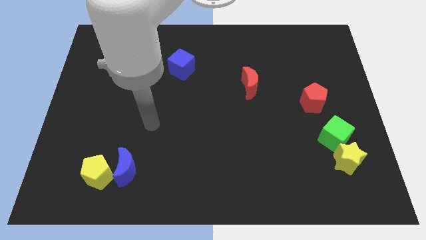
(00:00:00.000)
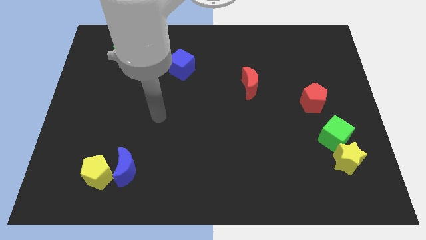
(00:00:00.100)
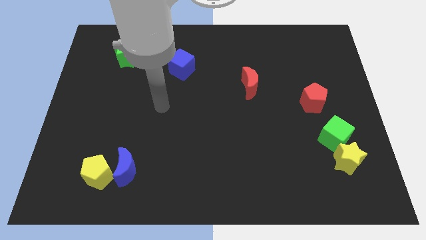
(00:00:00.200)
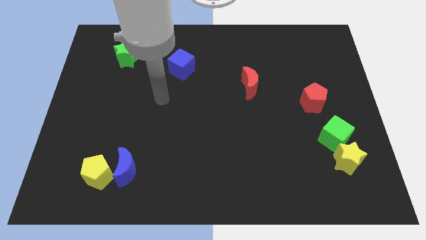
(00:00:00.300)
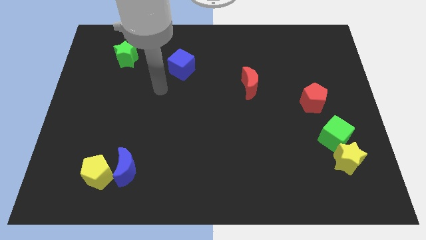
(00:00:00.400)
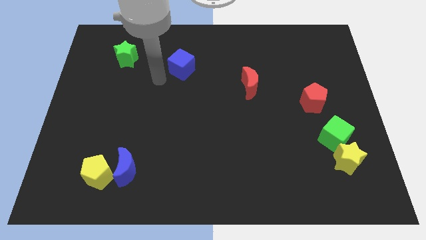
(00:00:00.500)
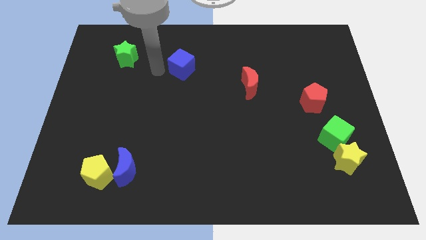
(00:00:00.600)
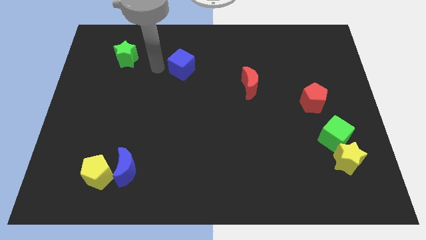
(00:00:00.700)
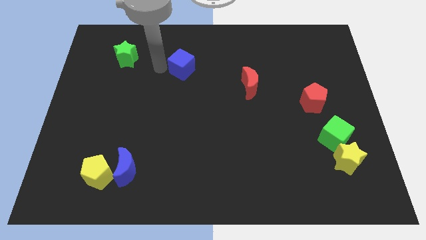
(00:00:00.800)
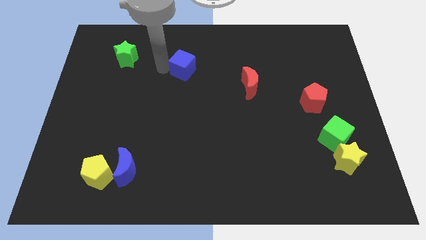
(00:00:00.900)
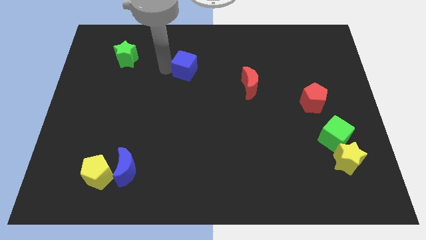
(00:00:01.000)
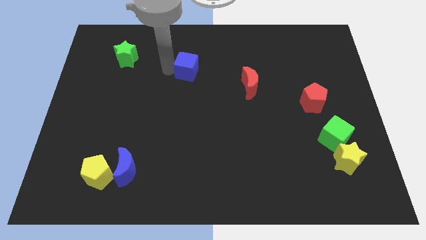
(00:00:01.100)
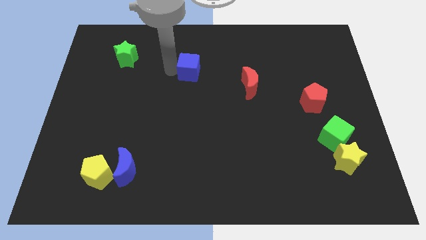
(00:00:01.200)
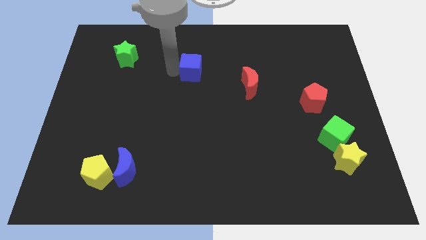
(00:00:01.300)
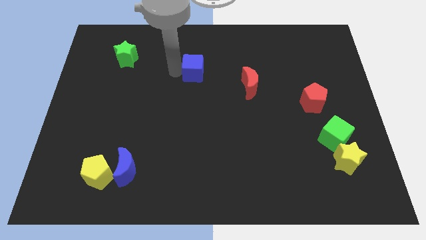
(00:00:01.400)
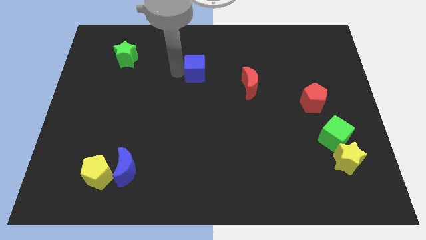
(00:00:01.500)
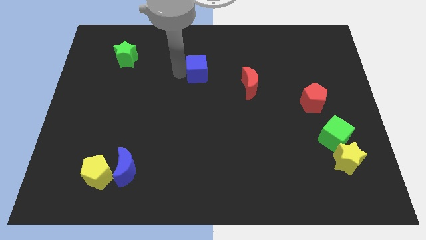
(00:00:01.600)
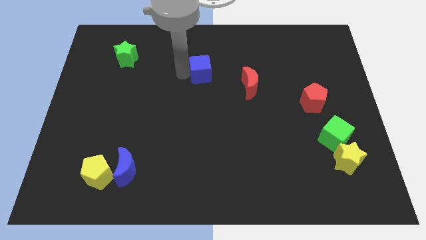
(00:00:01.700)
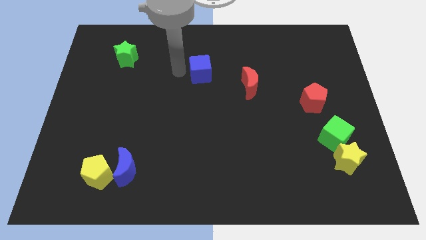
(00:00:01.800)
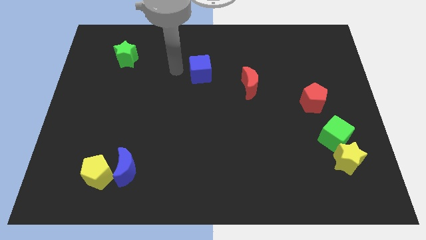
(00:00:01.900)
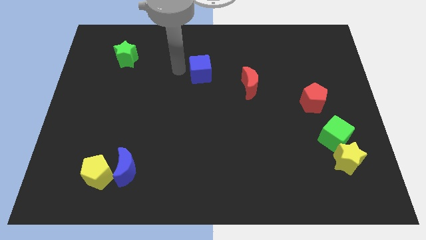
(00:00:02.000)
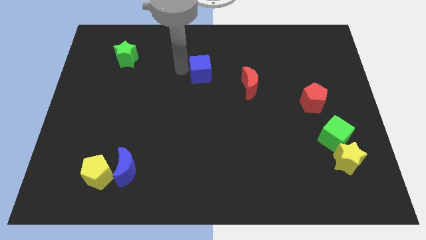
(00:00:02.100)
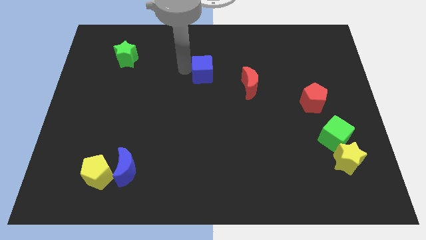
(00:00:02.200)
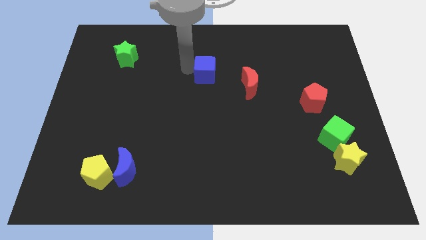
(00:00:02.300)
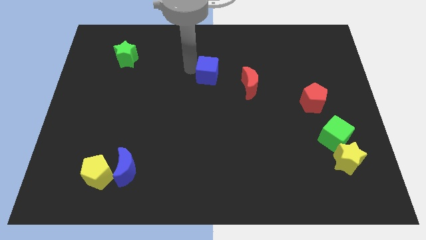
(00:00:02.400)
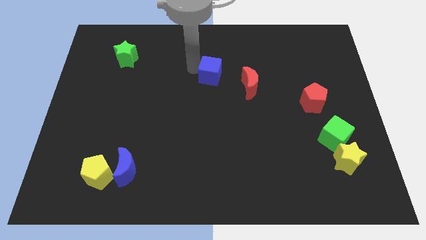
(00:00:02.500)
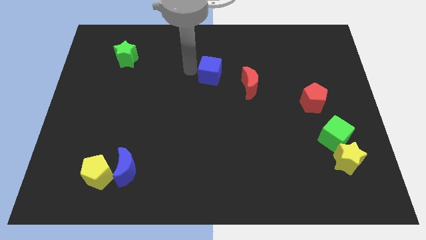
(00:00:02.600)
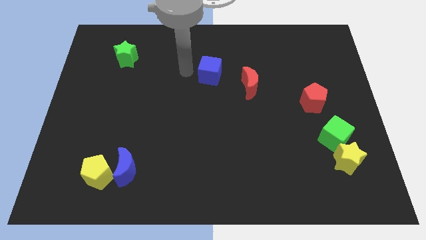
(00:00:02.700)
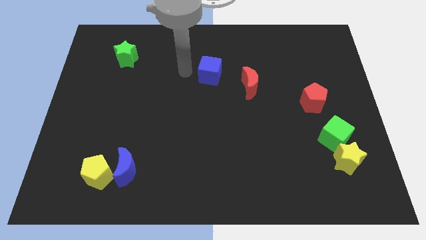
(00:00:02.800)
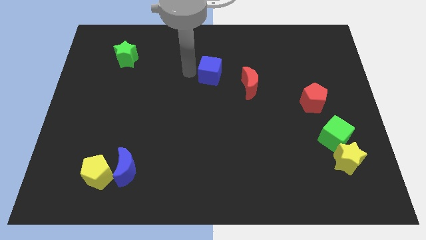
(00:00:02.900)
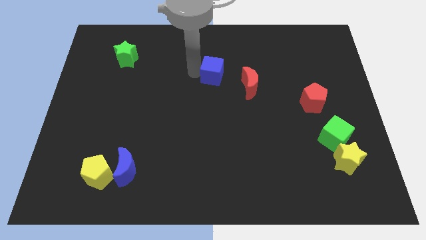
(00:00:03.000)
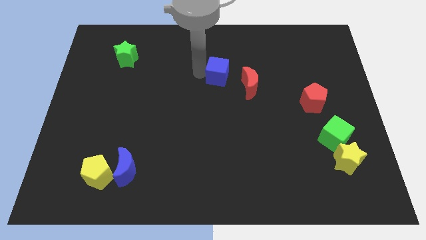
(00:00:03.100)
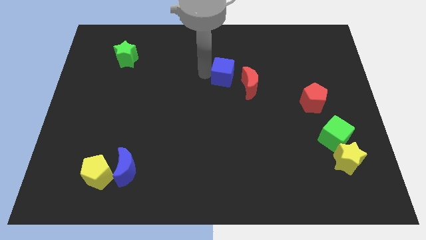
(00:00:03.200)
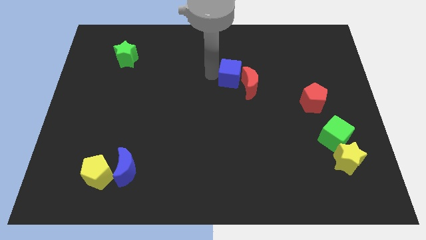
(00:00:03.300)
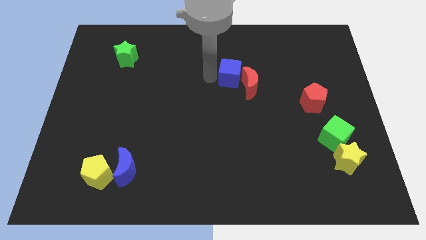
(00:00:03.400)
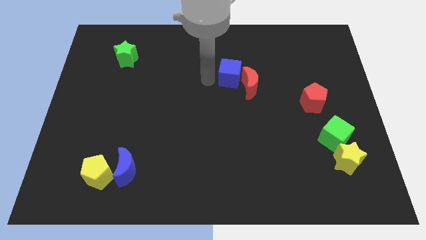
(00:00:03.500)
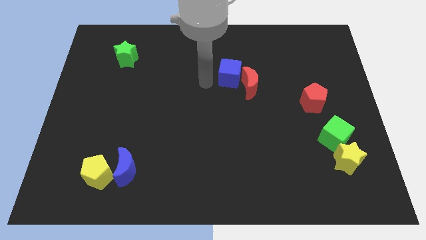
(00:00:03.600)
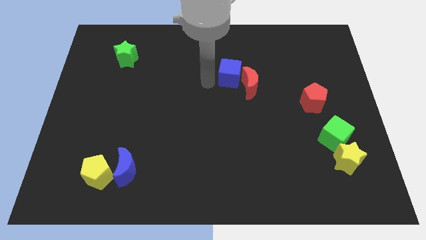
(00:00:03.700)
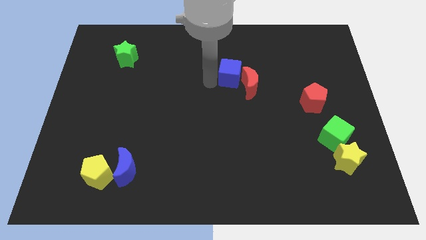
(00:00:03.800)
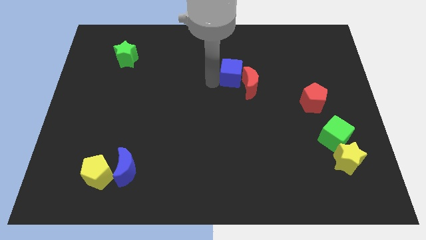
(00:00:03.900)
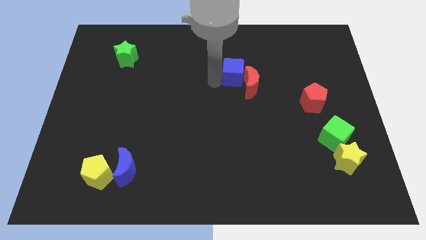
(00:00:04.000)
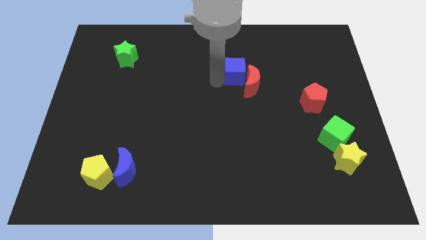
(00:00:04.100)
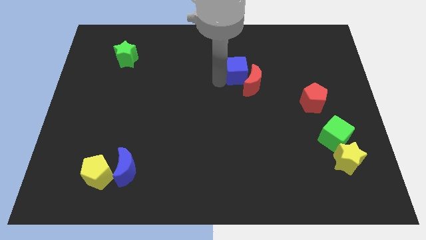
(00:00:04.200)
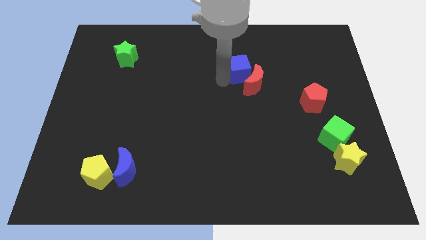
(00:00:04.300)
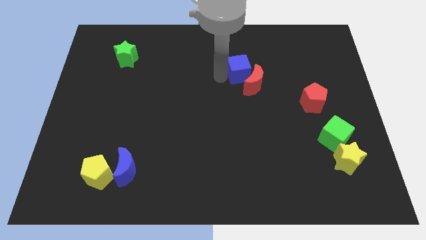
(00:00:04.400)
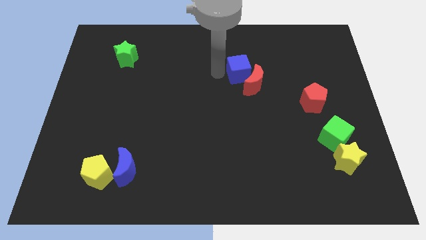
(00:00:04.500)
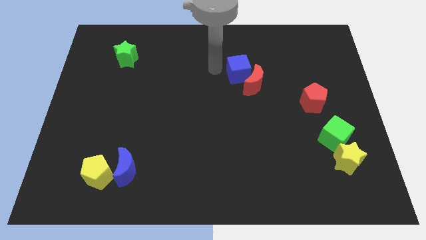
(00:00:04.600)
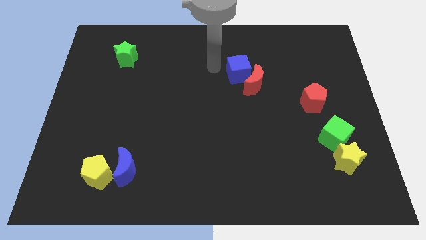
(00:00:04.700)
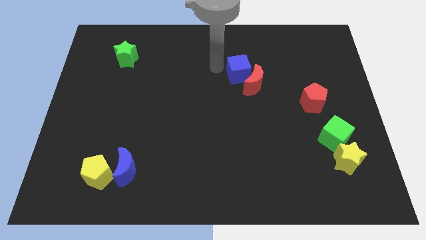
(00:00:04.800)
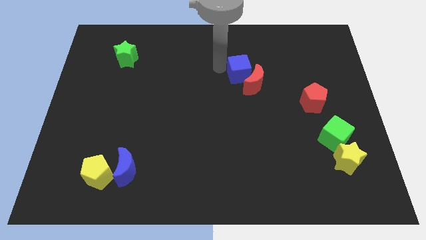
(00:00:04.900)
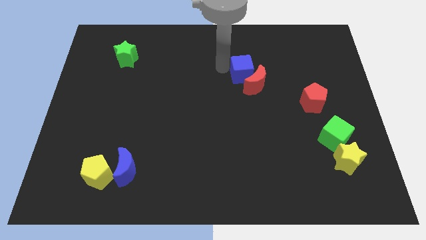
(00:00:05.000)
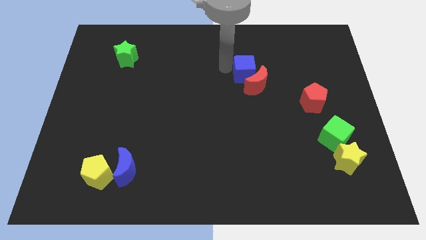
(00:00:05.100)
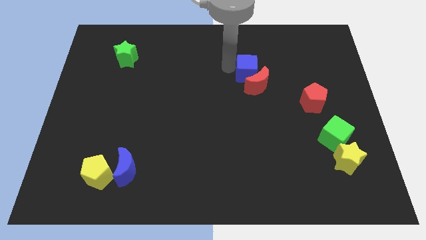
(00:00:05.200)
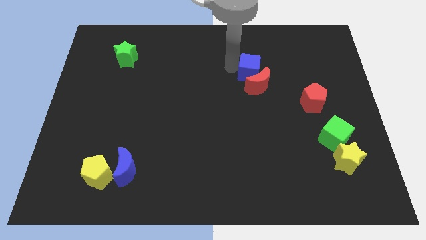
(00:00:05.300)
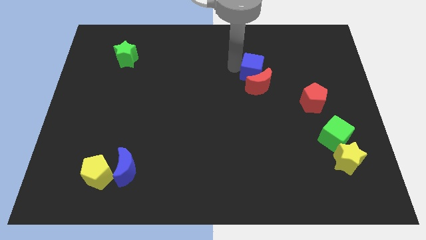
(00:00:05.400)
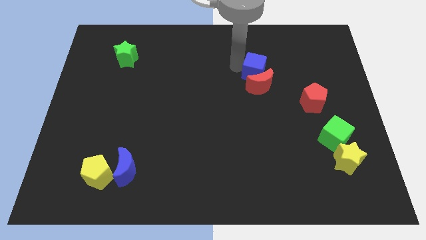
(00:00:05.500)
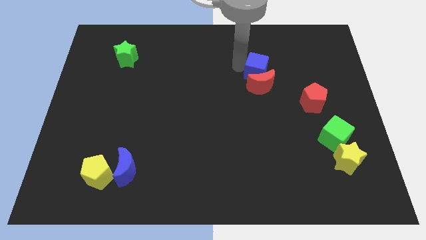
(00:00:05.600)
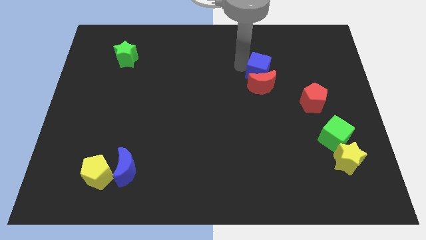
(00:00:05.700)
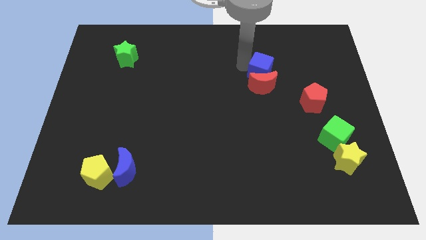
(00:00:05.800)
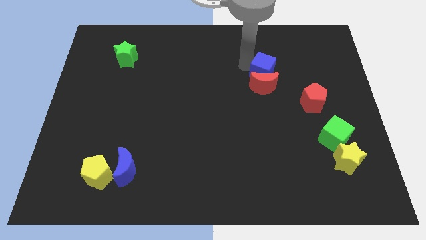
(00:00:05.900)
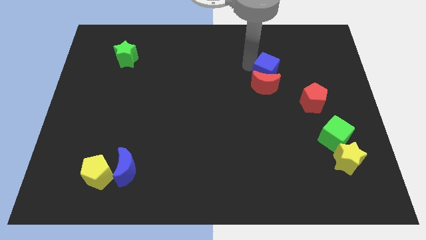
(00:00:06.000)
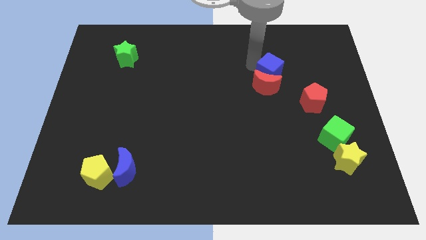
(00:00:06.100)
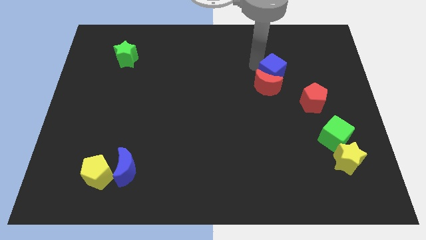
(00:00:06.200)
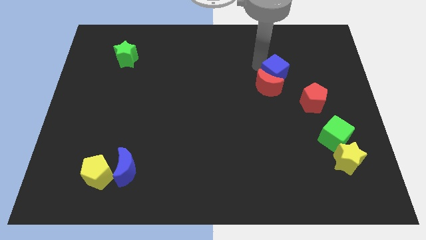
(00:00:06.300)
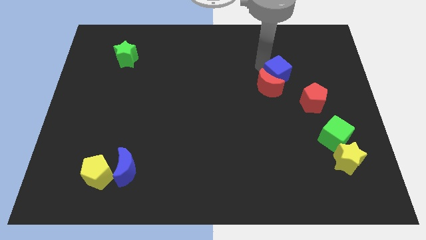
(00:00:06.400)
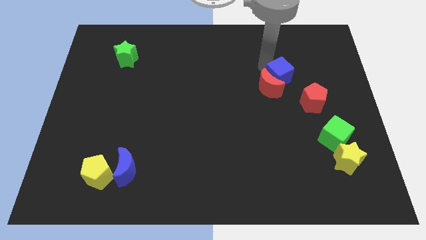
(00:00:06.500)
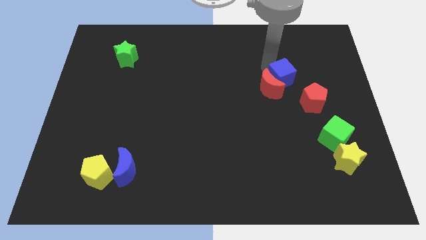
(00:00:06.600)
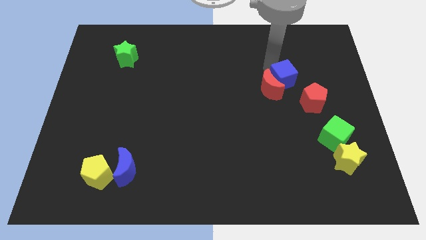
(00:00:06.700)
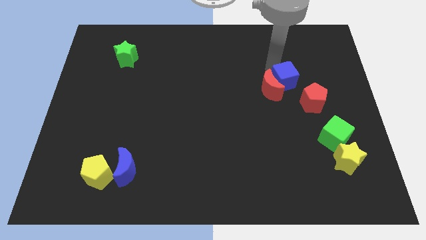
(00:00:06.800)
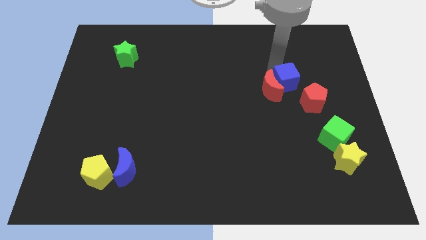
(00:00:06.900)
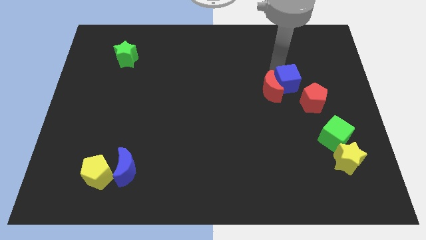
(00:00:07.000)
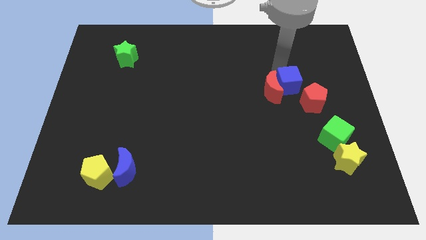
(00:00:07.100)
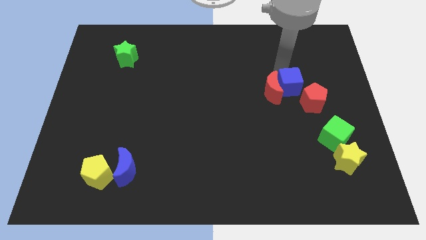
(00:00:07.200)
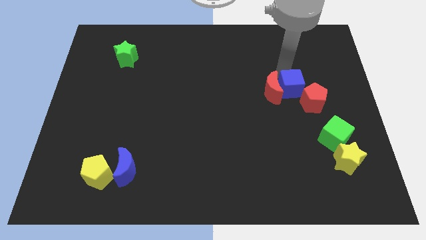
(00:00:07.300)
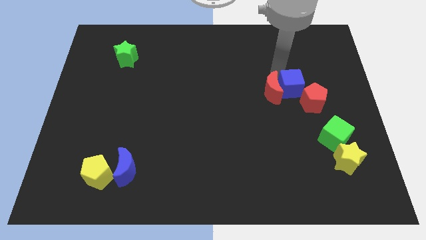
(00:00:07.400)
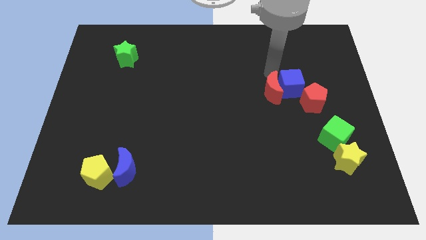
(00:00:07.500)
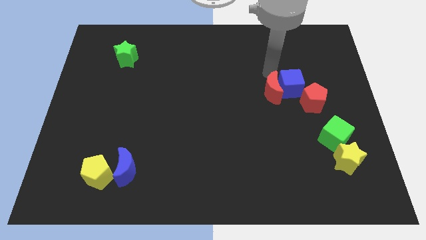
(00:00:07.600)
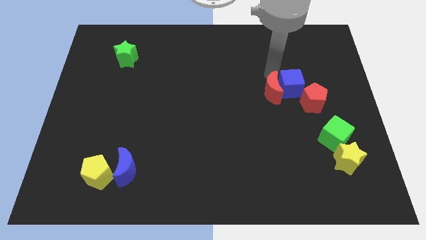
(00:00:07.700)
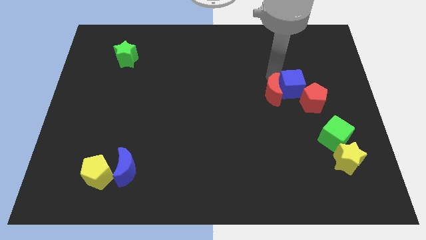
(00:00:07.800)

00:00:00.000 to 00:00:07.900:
push the blue cube towards the red pentagon
